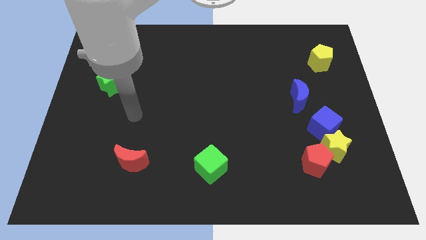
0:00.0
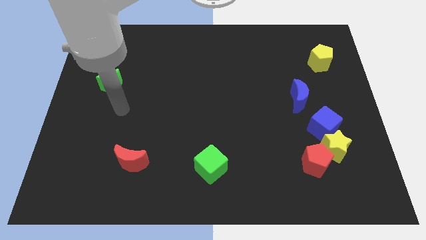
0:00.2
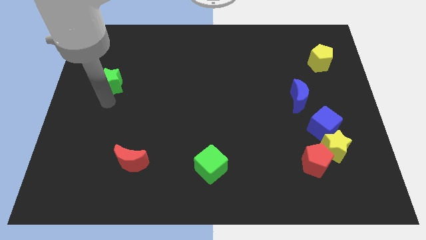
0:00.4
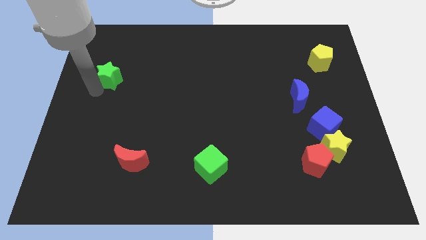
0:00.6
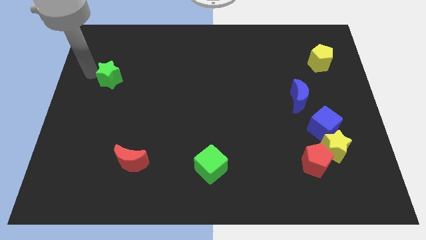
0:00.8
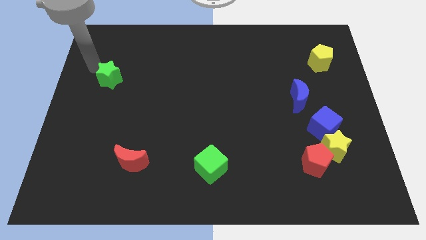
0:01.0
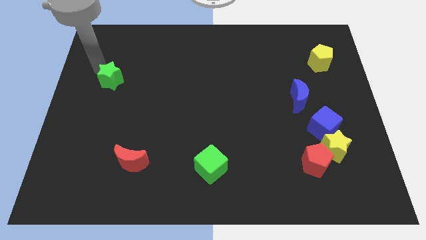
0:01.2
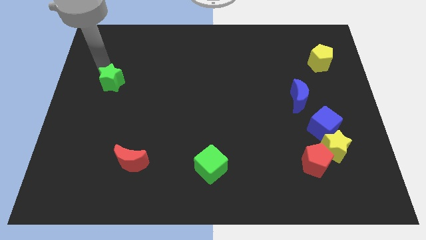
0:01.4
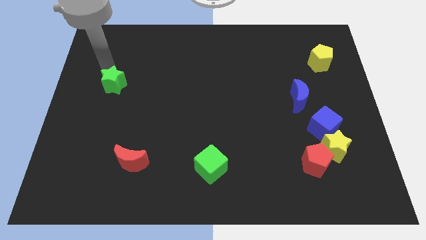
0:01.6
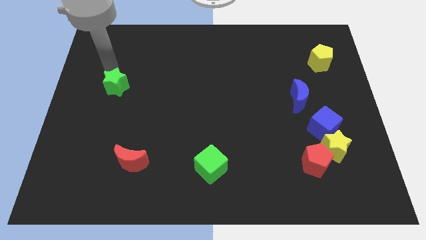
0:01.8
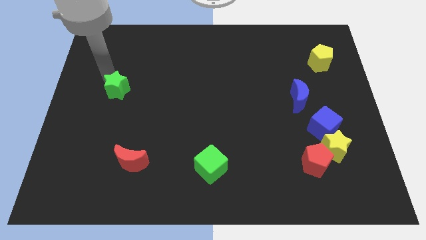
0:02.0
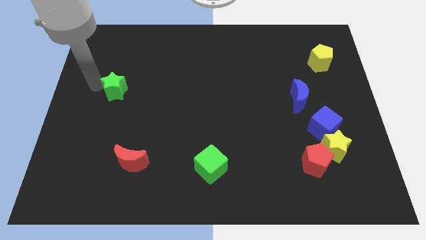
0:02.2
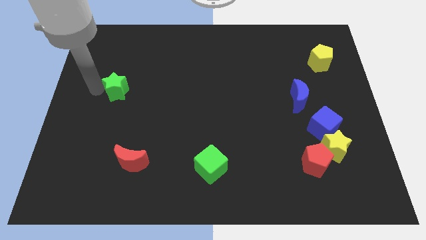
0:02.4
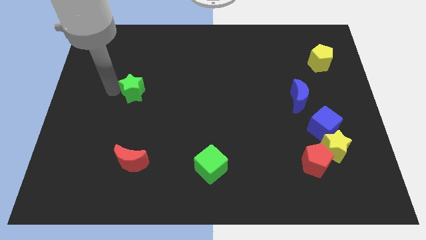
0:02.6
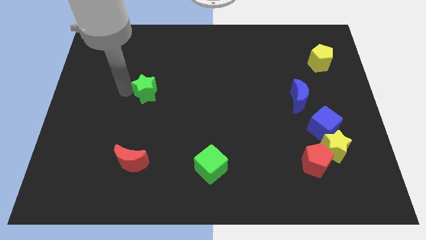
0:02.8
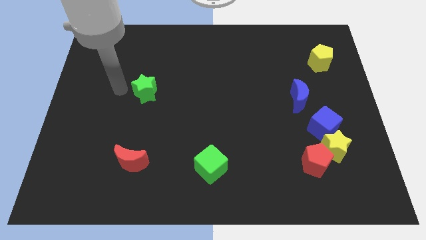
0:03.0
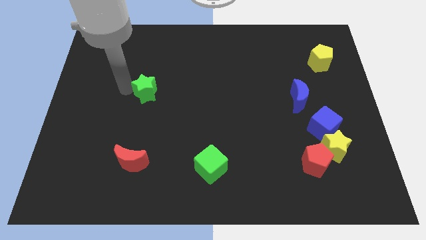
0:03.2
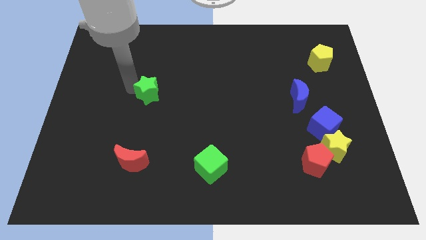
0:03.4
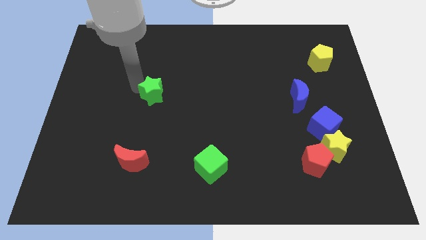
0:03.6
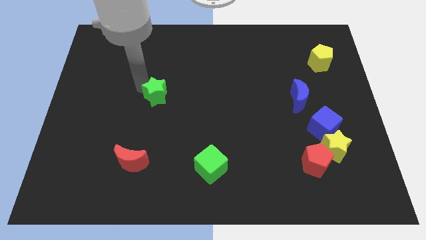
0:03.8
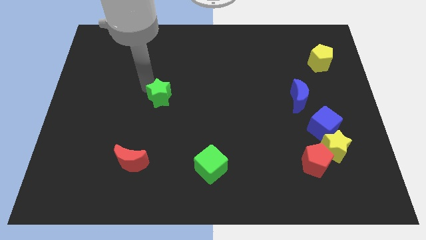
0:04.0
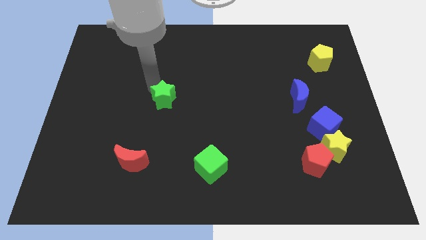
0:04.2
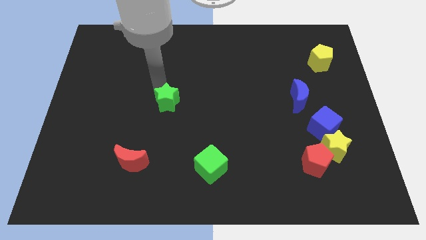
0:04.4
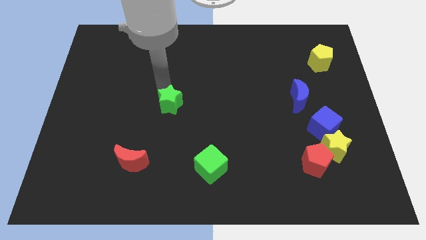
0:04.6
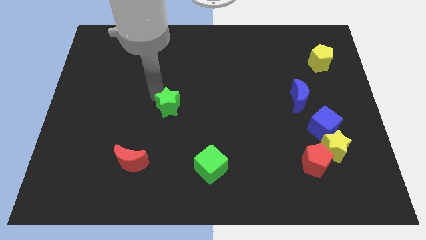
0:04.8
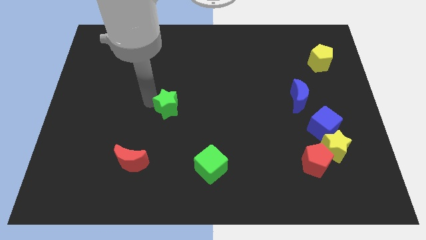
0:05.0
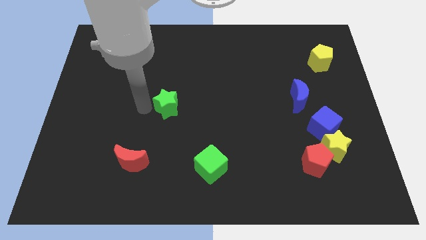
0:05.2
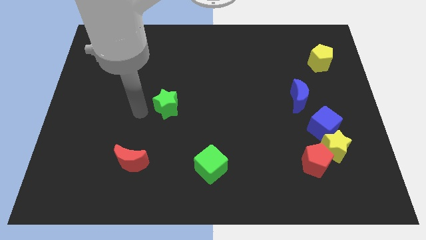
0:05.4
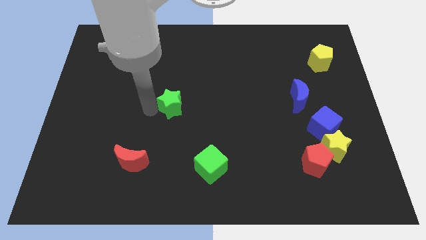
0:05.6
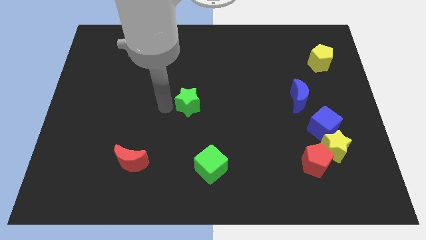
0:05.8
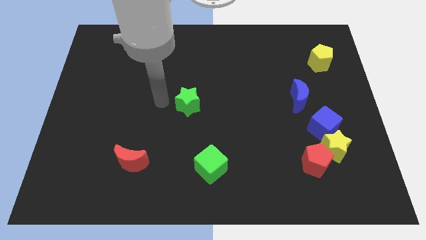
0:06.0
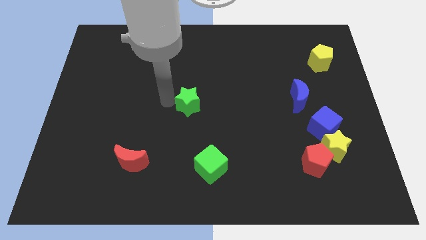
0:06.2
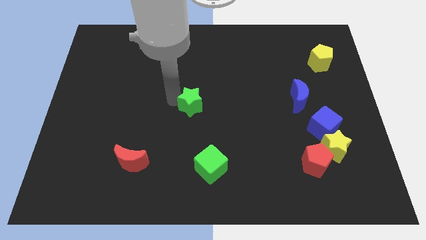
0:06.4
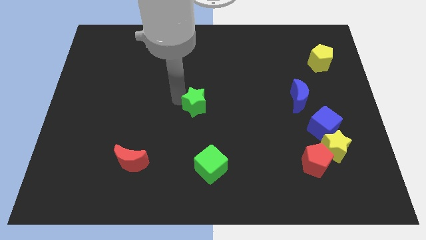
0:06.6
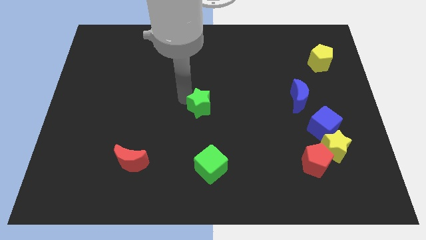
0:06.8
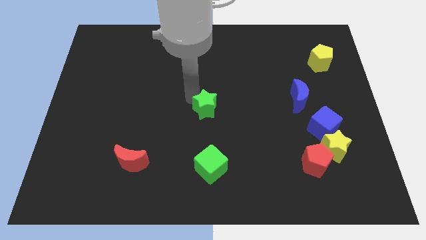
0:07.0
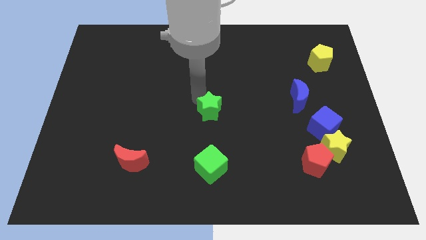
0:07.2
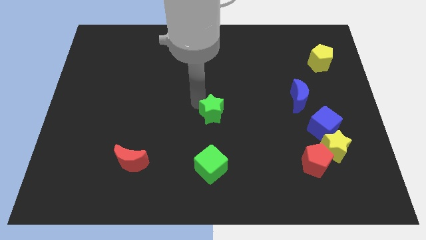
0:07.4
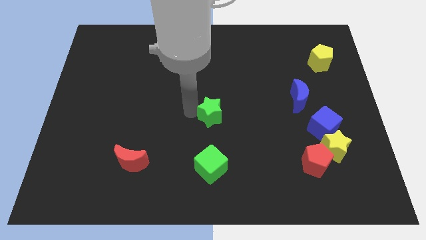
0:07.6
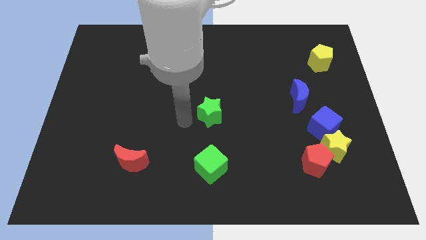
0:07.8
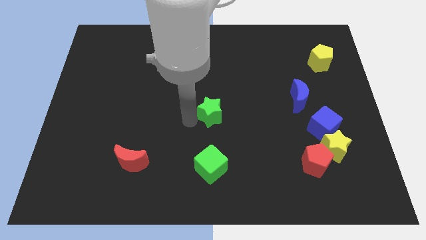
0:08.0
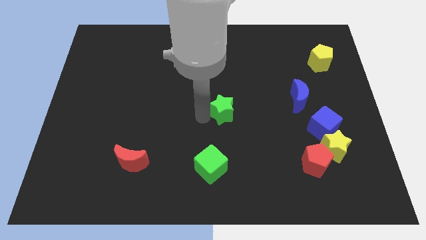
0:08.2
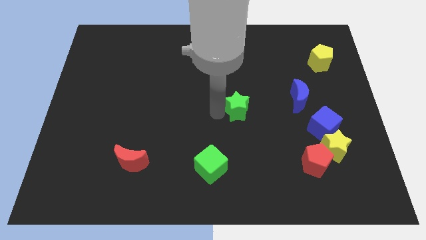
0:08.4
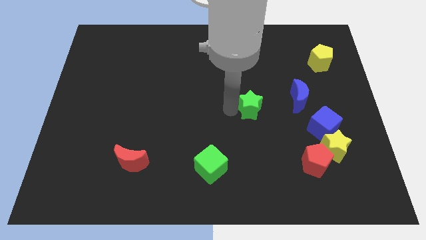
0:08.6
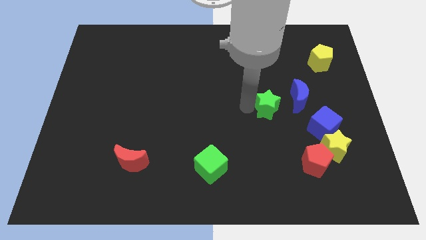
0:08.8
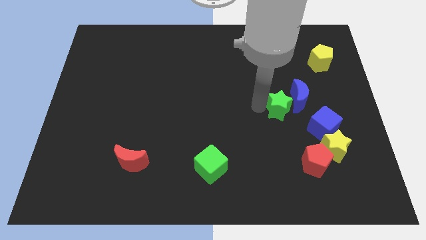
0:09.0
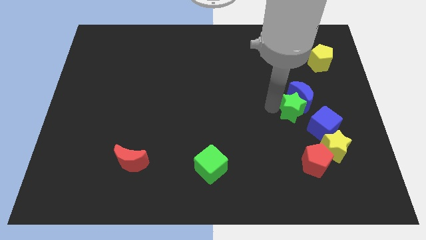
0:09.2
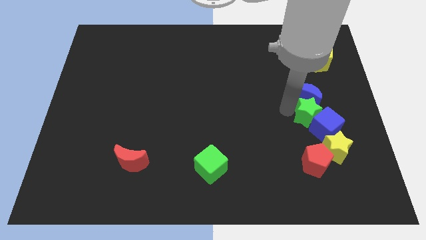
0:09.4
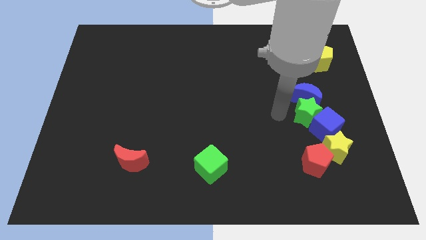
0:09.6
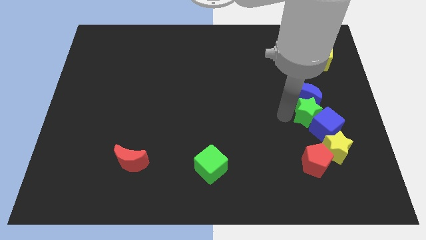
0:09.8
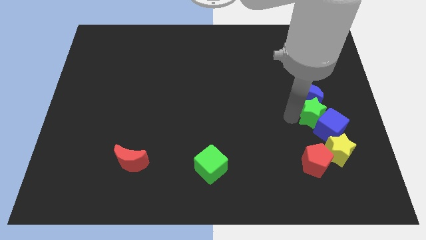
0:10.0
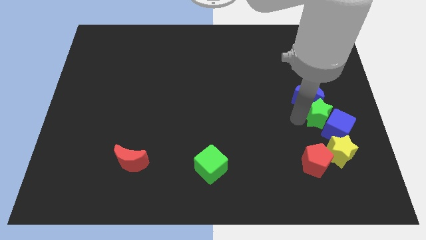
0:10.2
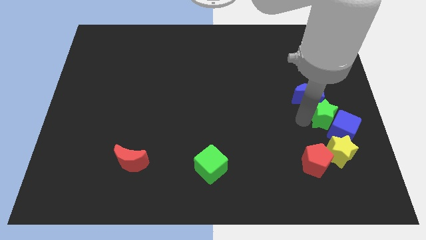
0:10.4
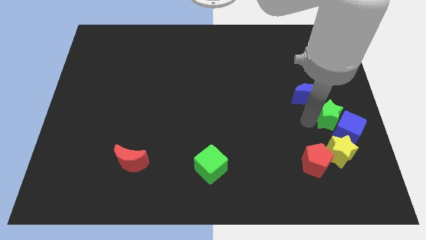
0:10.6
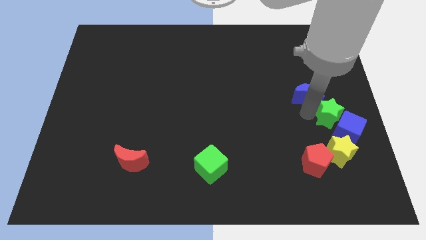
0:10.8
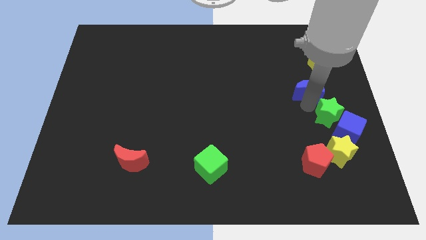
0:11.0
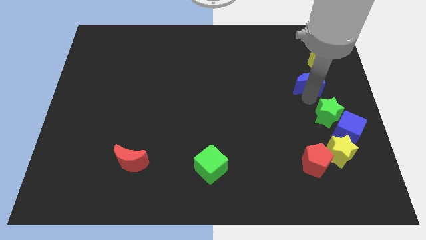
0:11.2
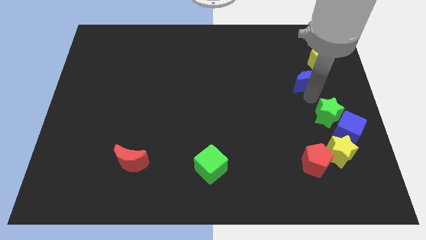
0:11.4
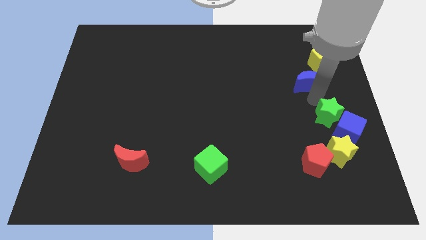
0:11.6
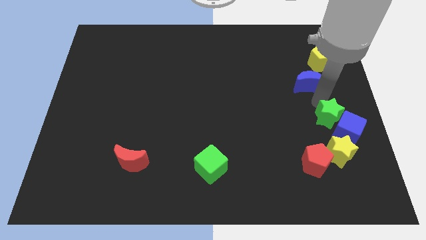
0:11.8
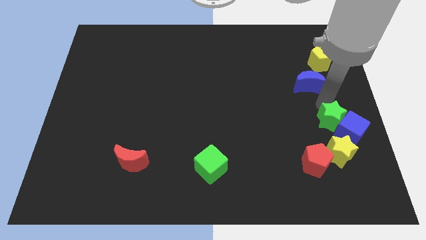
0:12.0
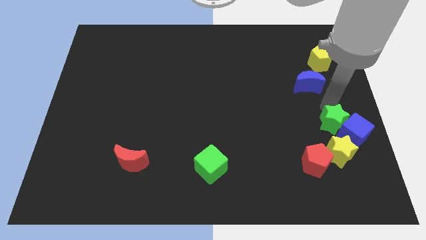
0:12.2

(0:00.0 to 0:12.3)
move the green star diagonally up and to the right of the red pentagon

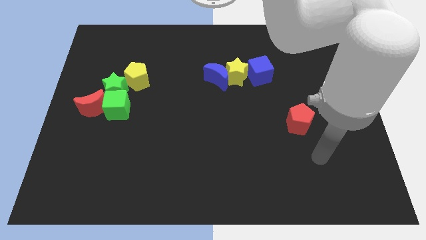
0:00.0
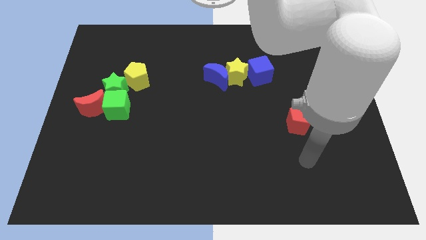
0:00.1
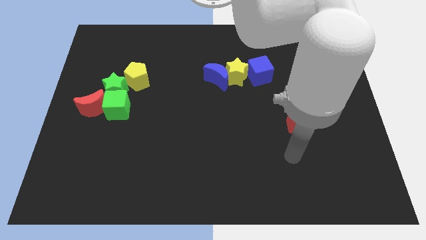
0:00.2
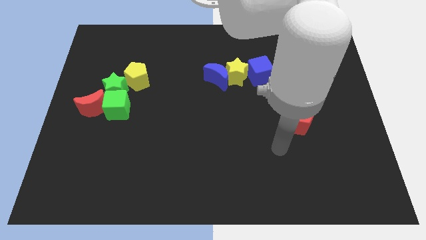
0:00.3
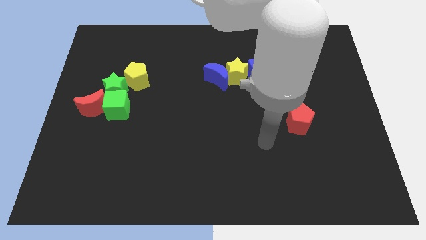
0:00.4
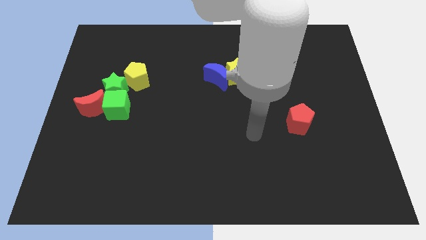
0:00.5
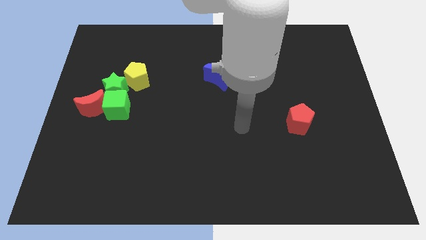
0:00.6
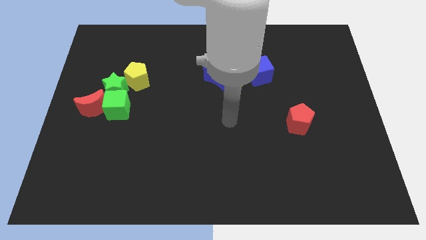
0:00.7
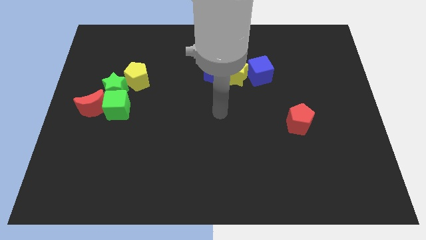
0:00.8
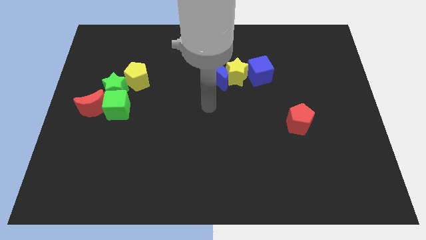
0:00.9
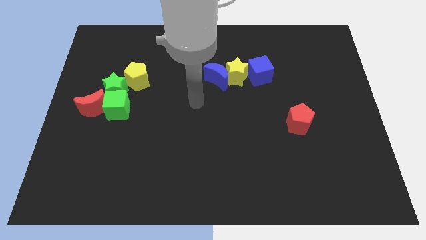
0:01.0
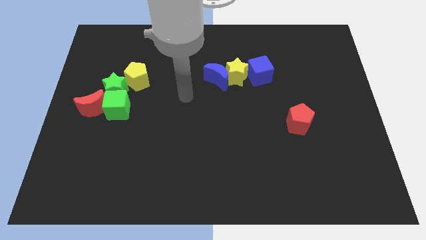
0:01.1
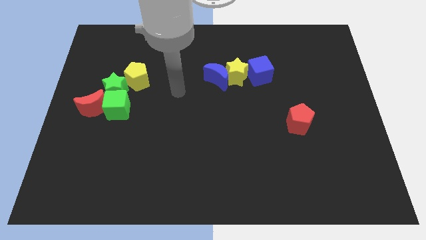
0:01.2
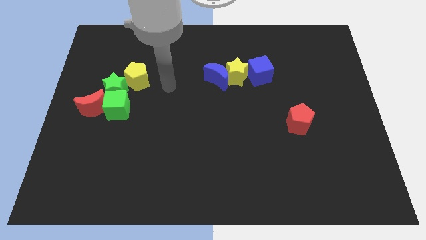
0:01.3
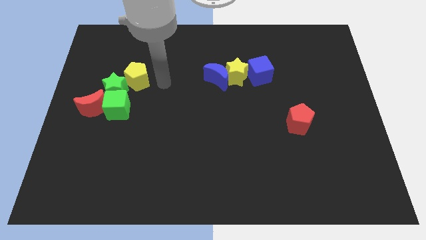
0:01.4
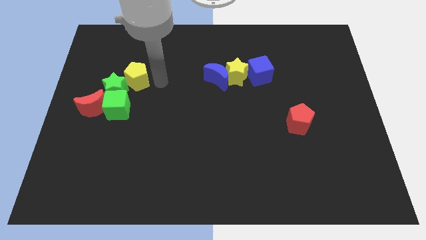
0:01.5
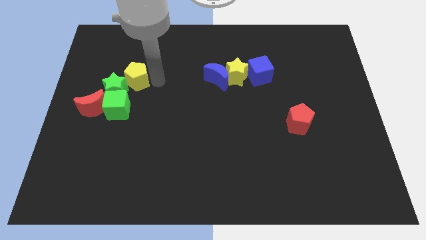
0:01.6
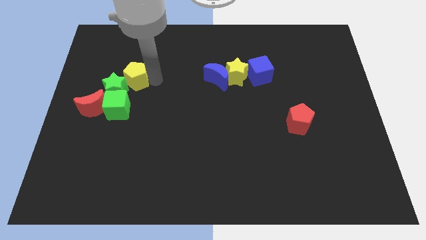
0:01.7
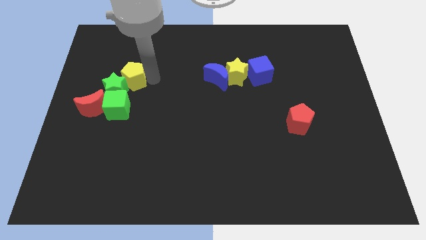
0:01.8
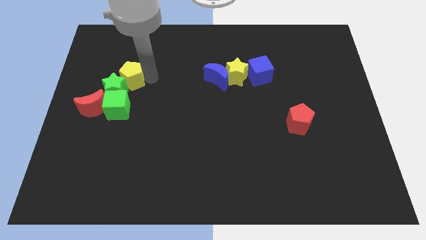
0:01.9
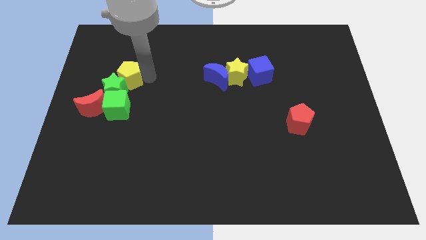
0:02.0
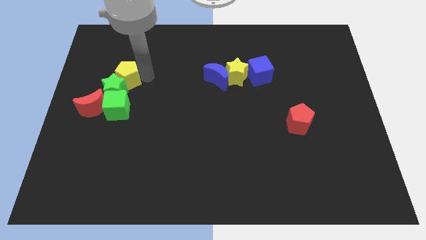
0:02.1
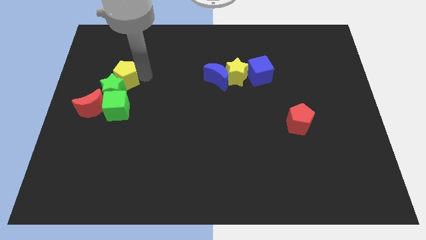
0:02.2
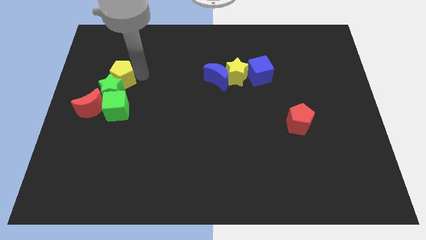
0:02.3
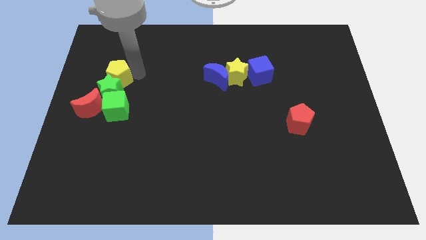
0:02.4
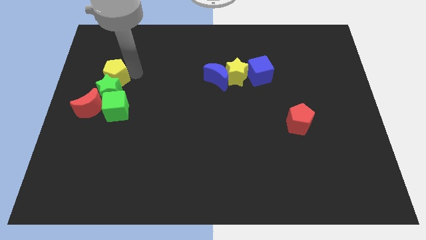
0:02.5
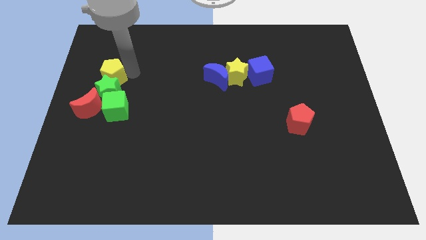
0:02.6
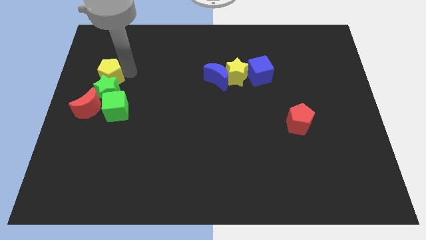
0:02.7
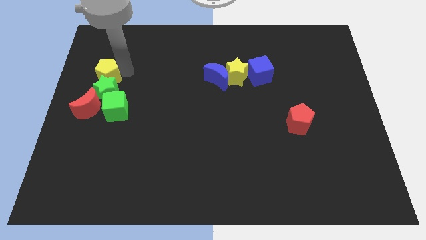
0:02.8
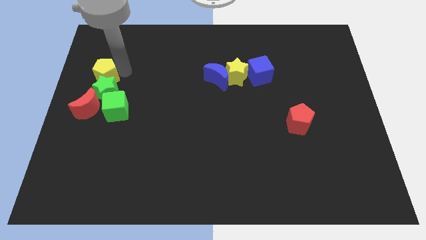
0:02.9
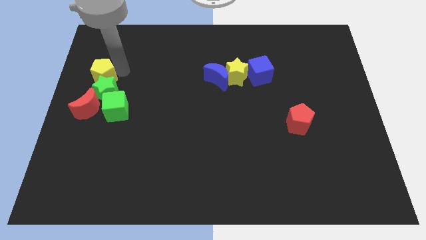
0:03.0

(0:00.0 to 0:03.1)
push the yellow pentagon diagonally up and to the left of the green cube
